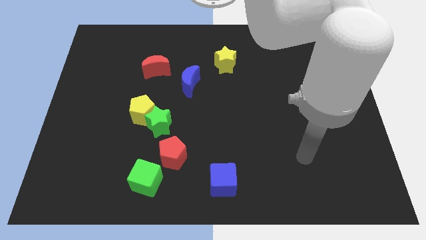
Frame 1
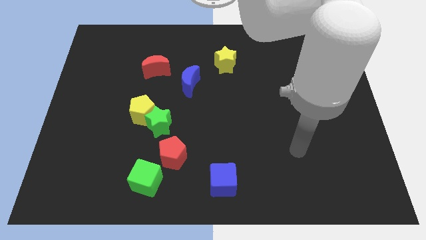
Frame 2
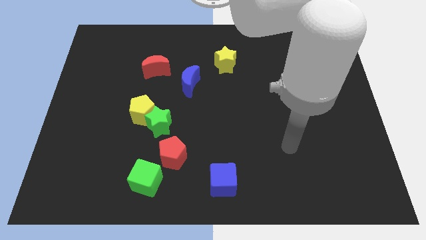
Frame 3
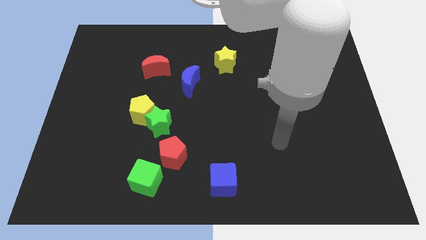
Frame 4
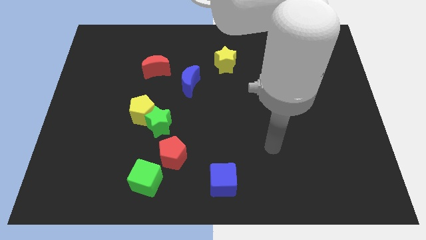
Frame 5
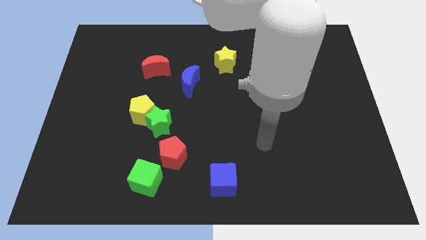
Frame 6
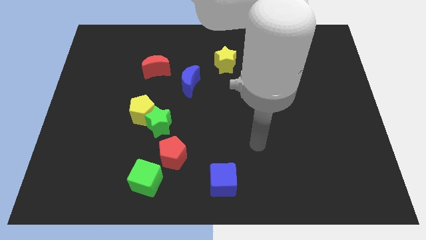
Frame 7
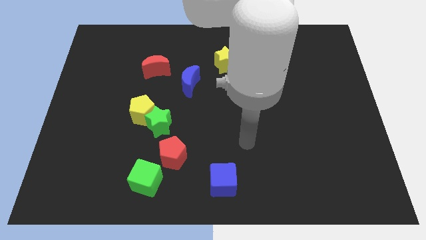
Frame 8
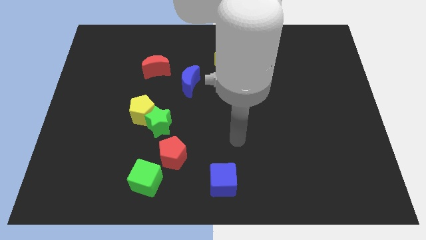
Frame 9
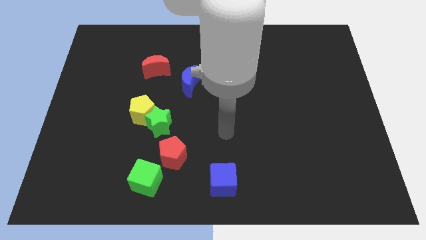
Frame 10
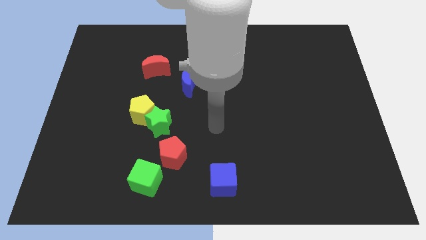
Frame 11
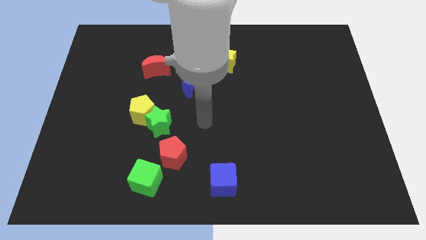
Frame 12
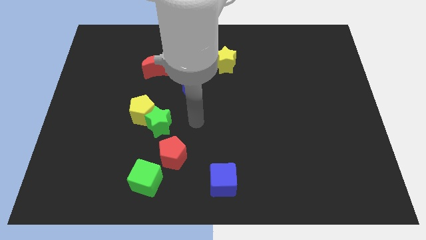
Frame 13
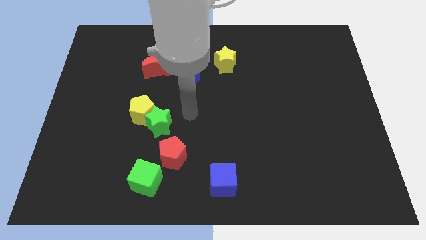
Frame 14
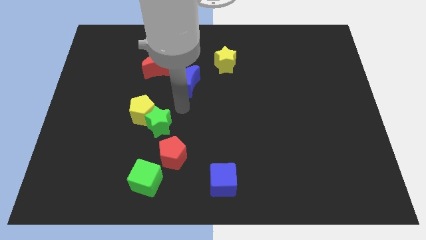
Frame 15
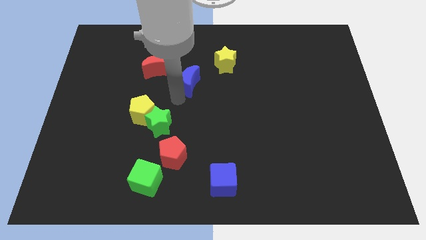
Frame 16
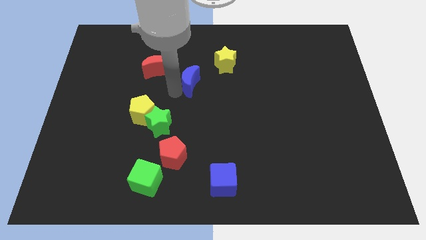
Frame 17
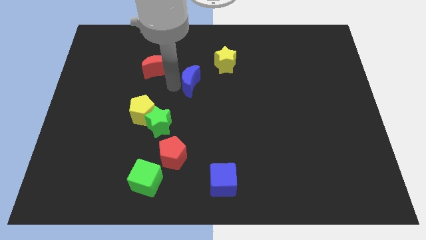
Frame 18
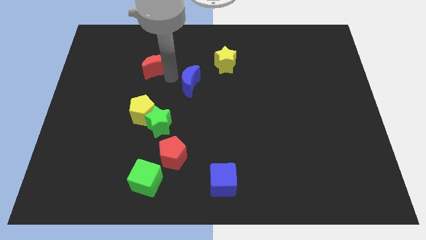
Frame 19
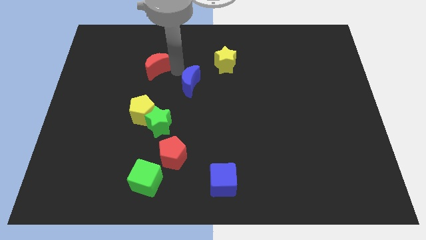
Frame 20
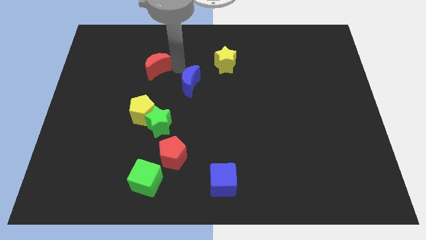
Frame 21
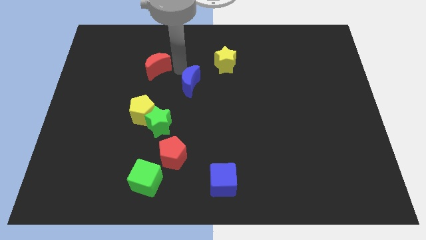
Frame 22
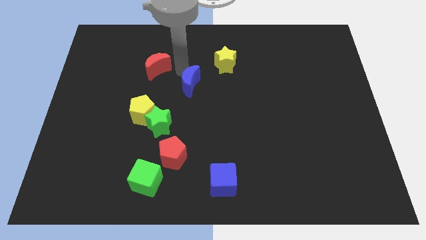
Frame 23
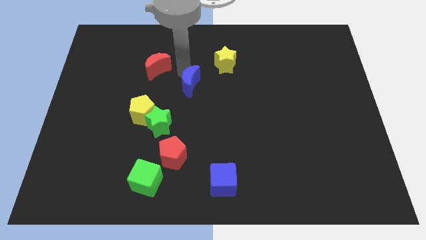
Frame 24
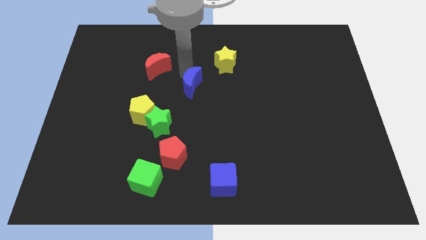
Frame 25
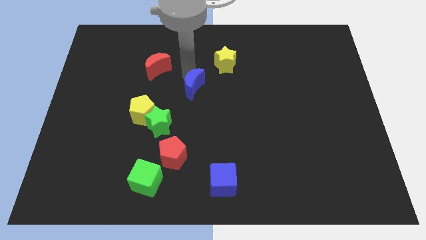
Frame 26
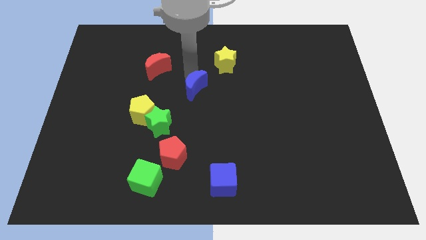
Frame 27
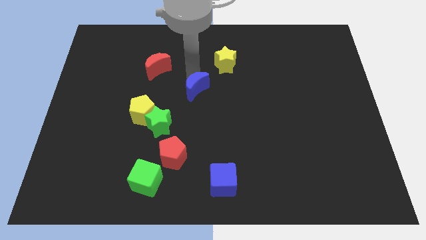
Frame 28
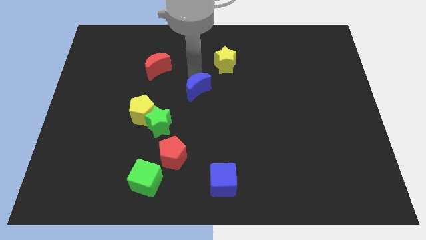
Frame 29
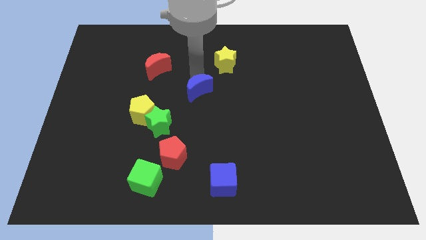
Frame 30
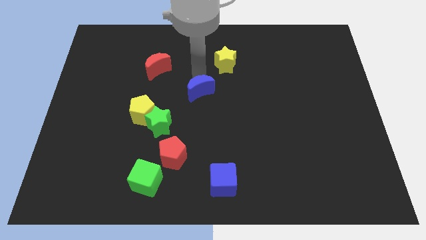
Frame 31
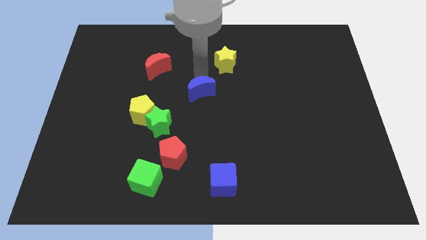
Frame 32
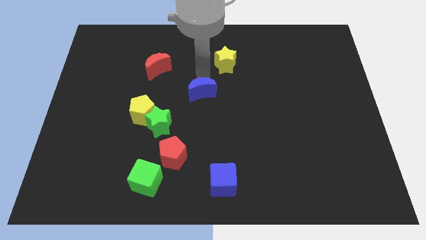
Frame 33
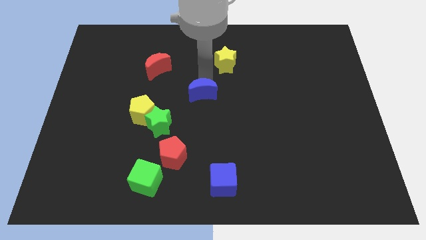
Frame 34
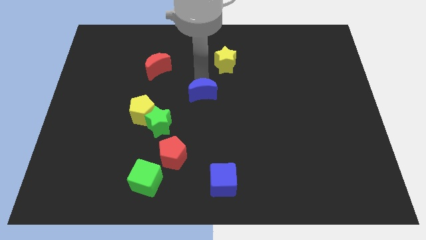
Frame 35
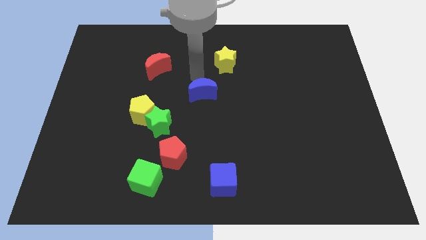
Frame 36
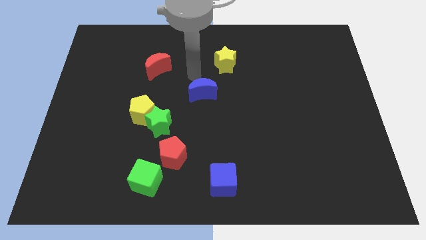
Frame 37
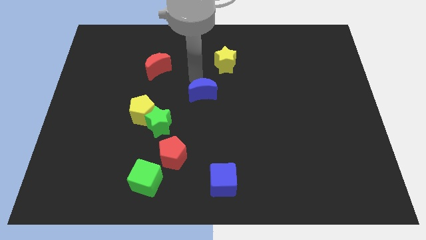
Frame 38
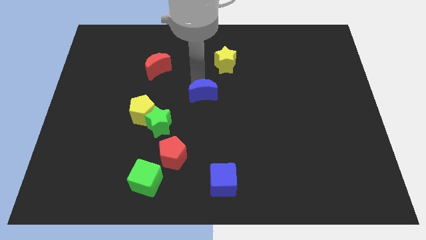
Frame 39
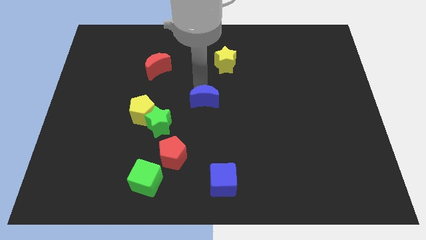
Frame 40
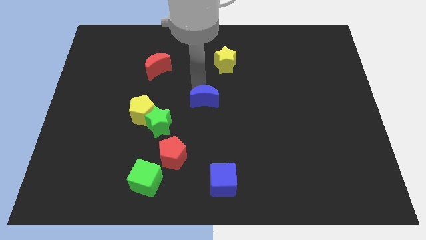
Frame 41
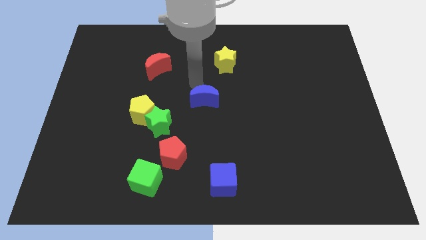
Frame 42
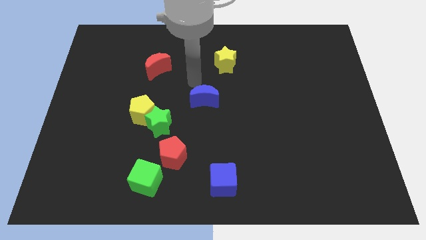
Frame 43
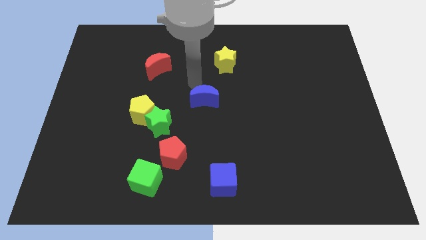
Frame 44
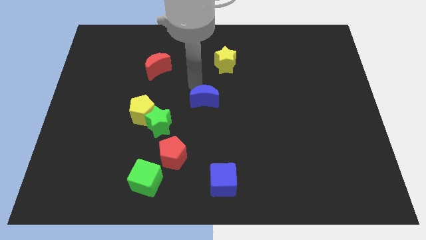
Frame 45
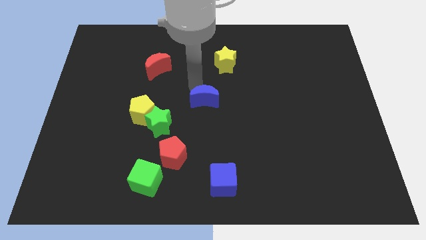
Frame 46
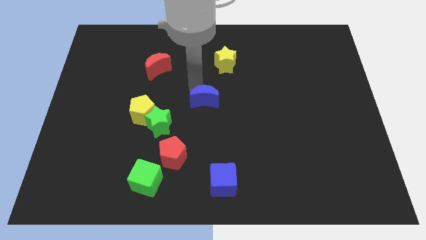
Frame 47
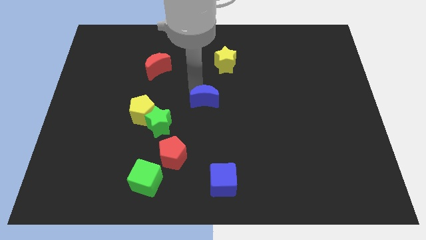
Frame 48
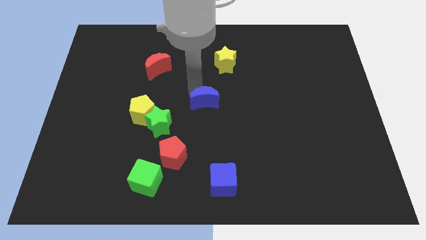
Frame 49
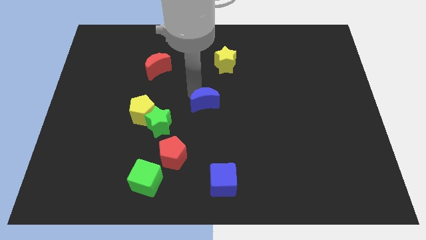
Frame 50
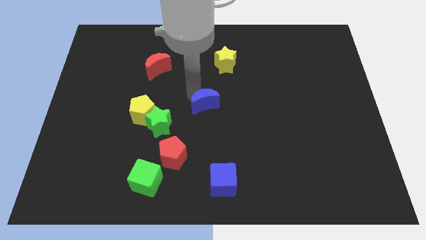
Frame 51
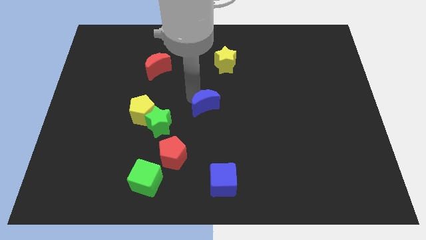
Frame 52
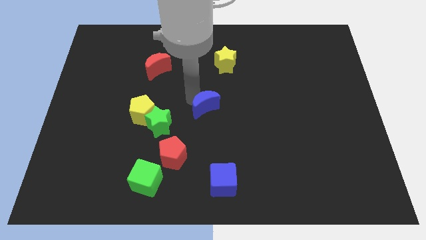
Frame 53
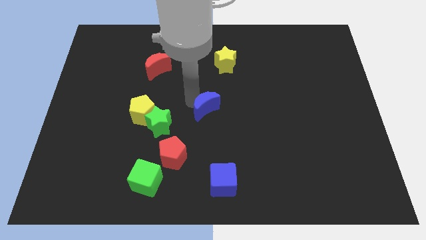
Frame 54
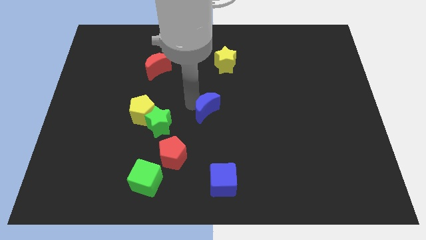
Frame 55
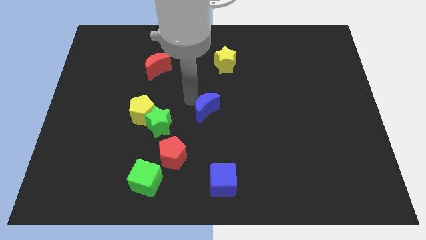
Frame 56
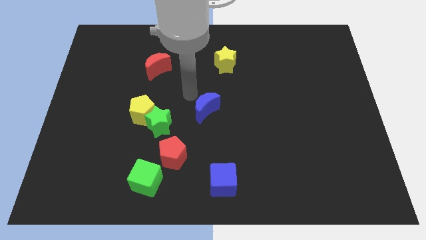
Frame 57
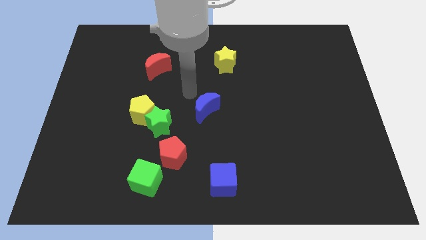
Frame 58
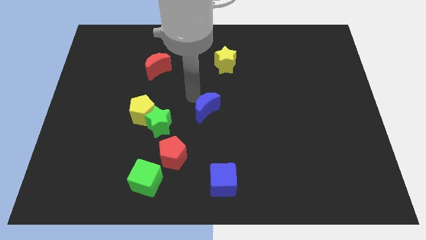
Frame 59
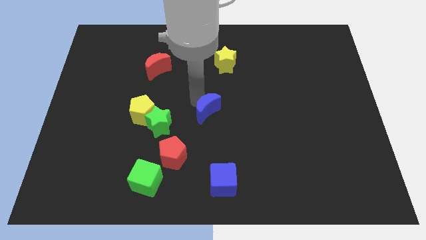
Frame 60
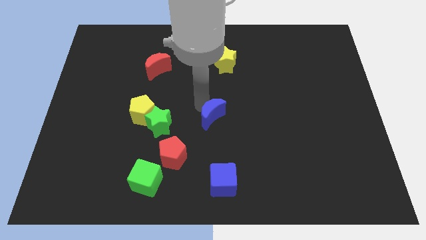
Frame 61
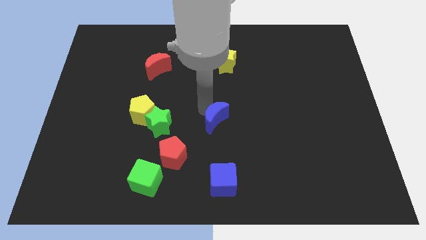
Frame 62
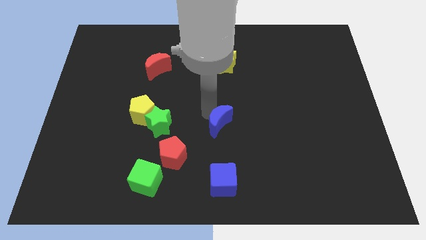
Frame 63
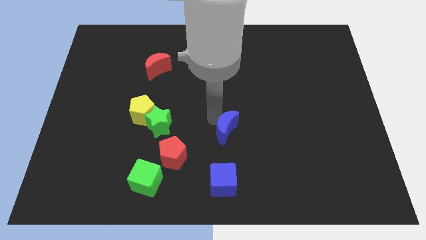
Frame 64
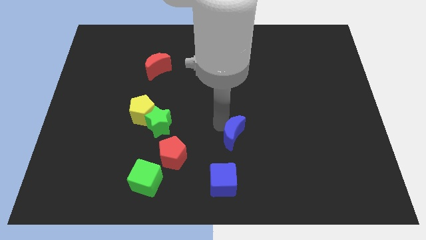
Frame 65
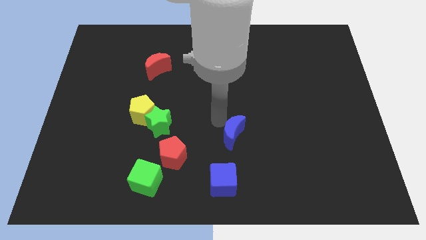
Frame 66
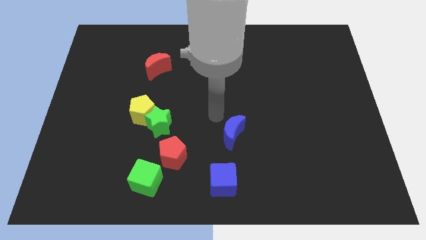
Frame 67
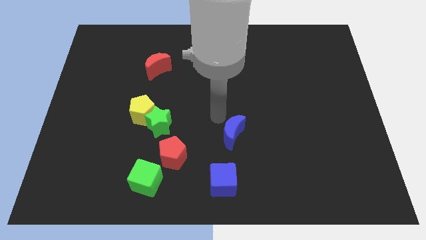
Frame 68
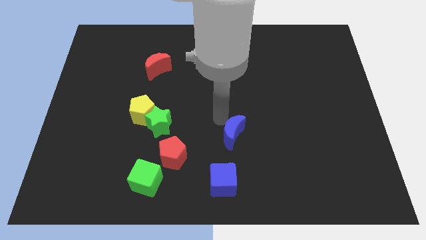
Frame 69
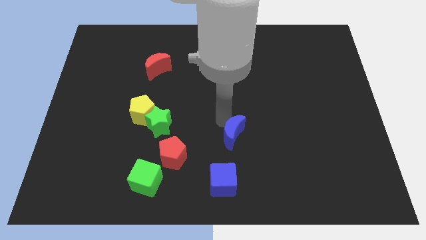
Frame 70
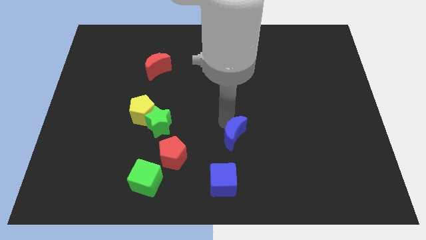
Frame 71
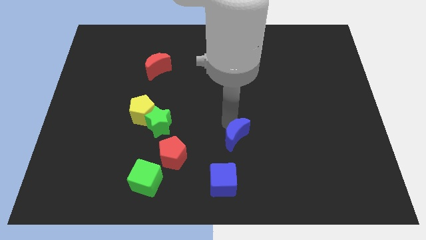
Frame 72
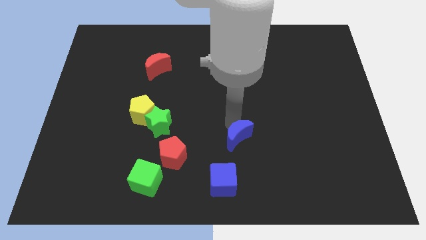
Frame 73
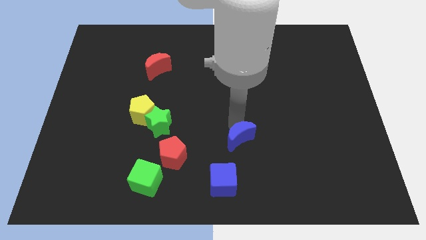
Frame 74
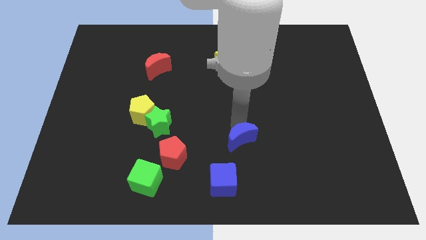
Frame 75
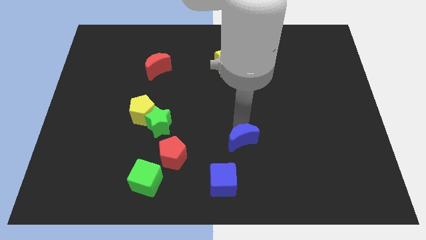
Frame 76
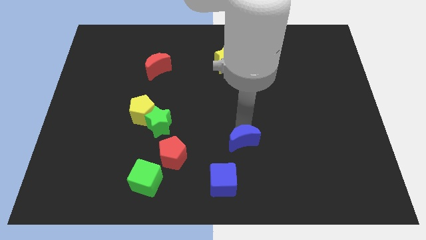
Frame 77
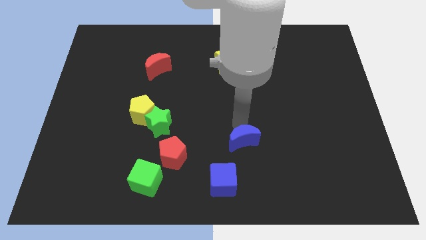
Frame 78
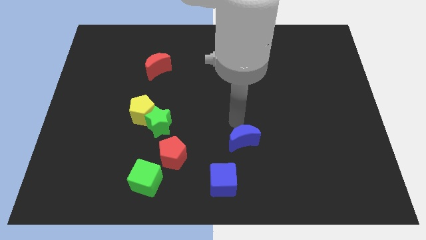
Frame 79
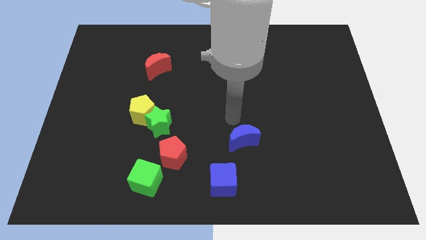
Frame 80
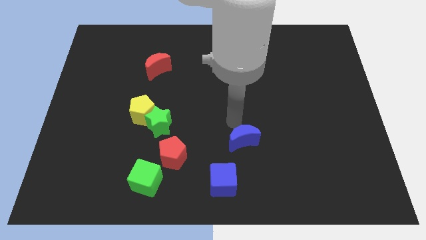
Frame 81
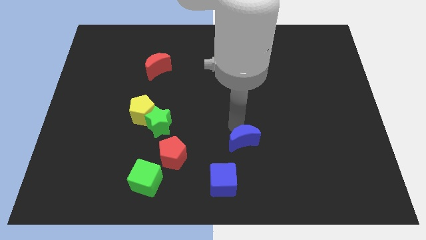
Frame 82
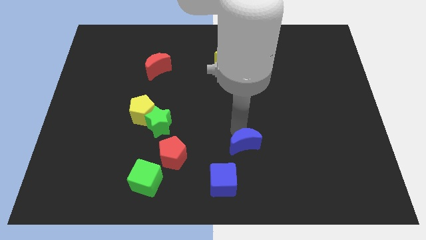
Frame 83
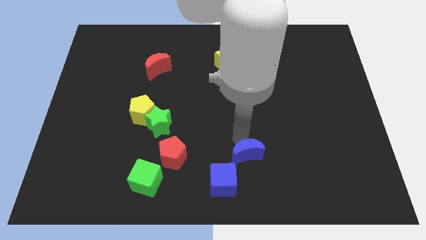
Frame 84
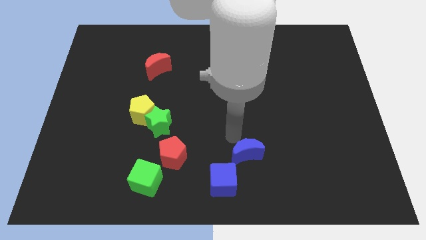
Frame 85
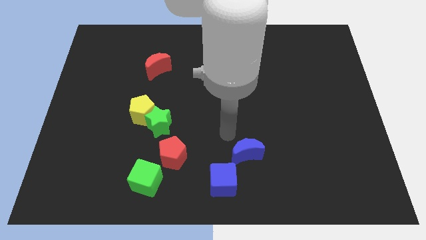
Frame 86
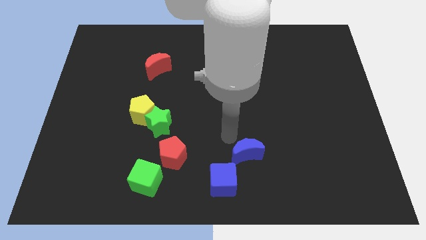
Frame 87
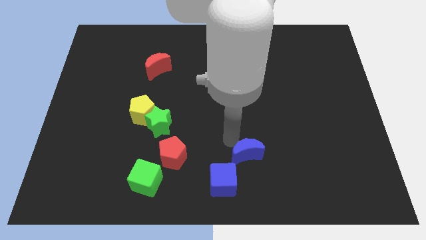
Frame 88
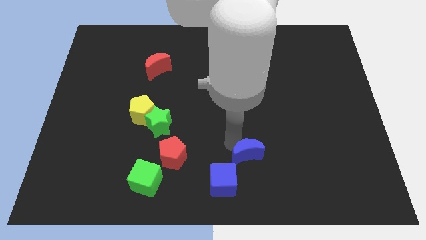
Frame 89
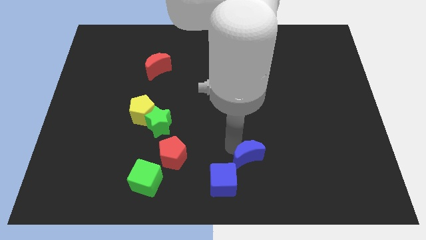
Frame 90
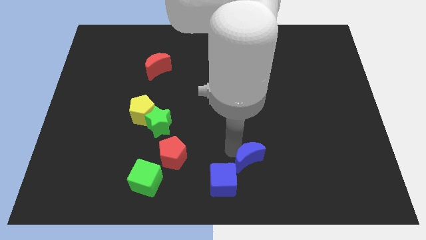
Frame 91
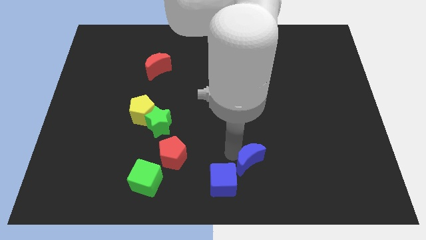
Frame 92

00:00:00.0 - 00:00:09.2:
move the blue moon to the right side of the blue cube
